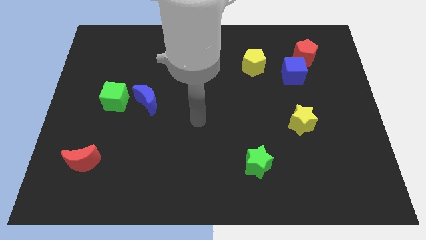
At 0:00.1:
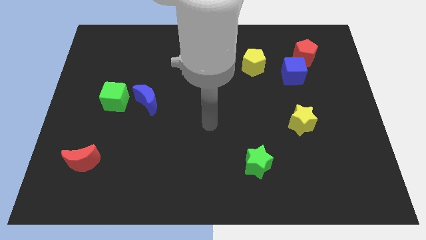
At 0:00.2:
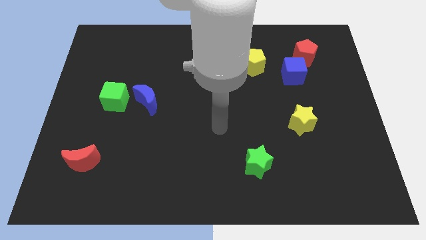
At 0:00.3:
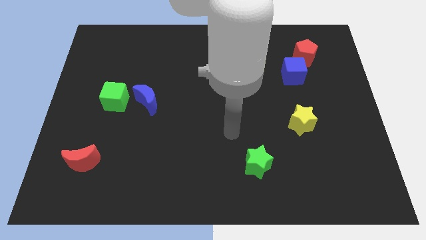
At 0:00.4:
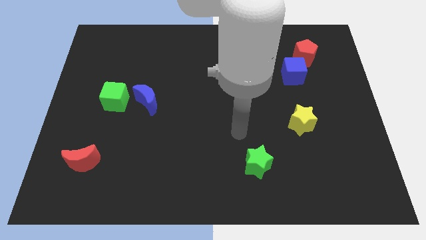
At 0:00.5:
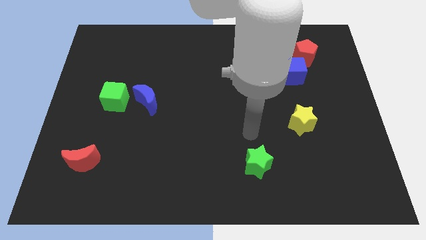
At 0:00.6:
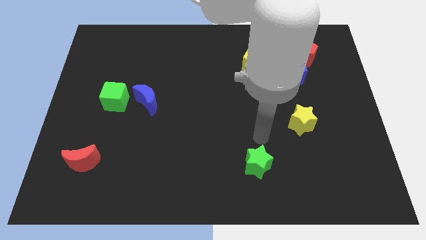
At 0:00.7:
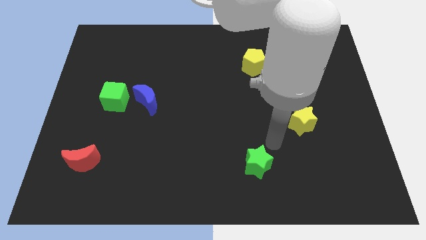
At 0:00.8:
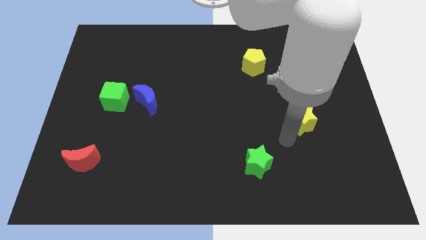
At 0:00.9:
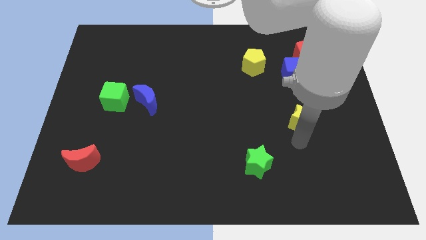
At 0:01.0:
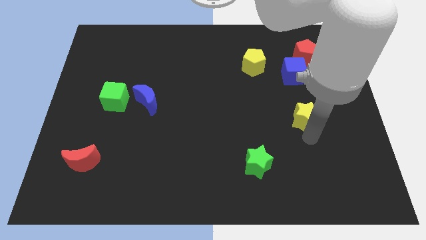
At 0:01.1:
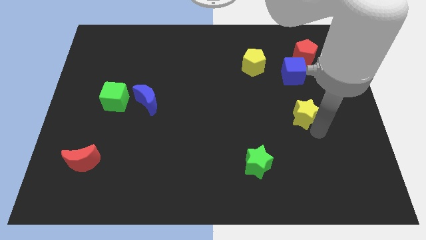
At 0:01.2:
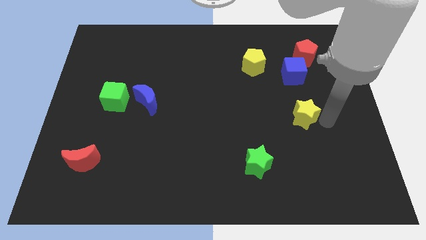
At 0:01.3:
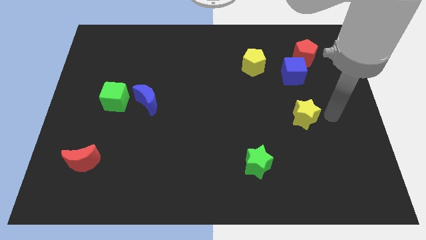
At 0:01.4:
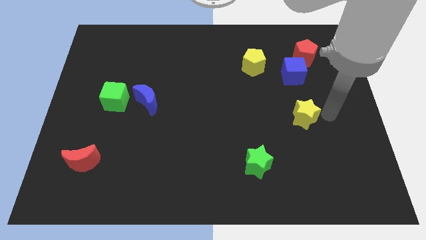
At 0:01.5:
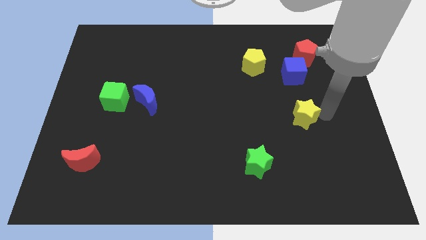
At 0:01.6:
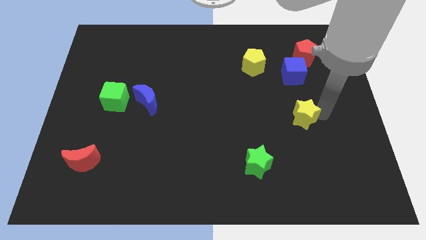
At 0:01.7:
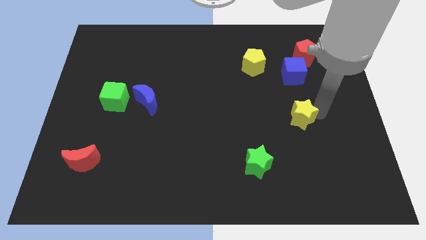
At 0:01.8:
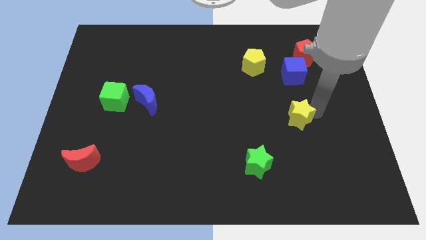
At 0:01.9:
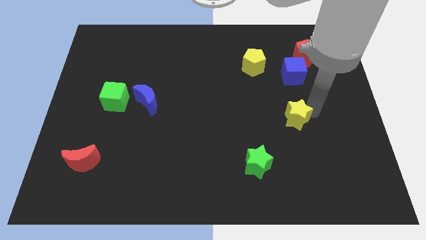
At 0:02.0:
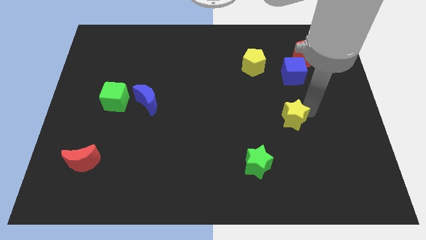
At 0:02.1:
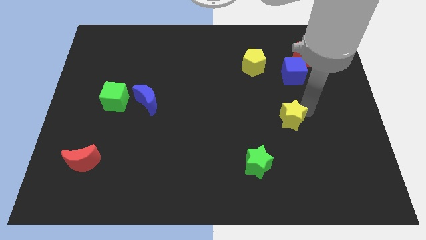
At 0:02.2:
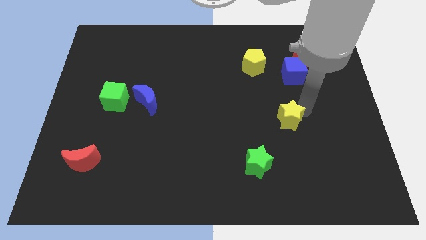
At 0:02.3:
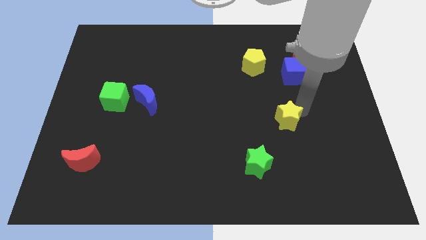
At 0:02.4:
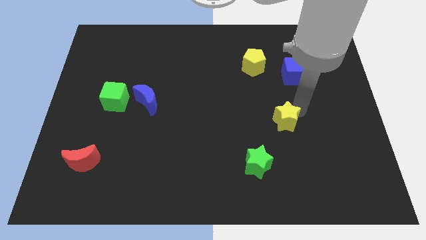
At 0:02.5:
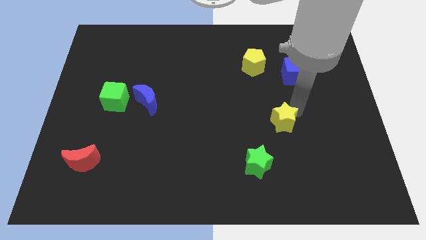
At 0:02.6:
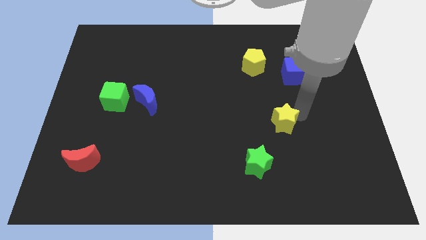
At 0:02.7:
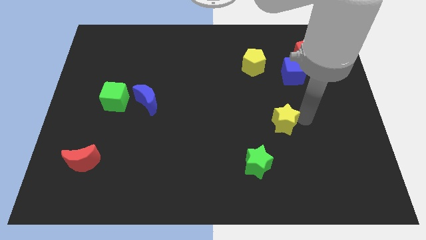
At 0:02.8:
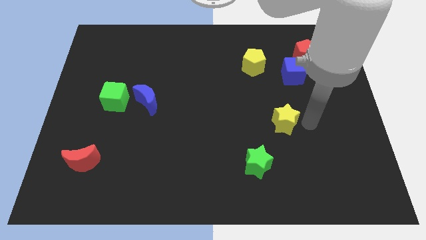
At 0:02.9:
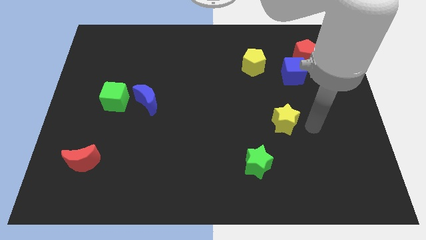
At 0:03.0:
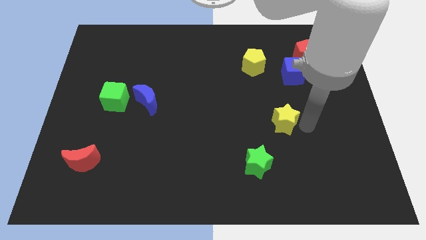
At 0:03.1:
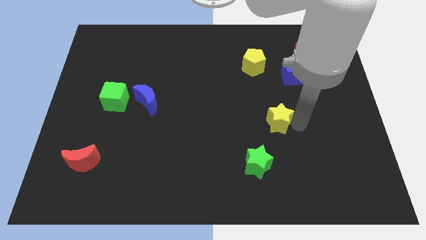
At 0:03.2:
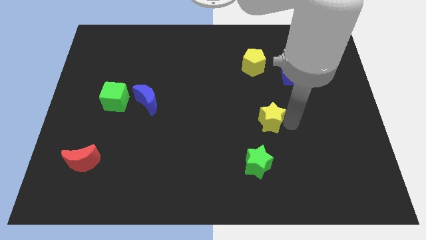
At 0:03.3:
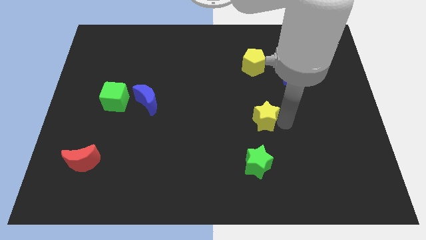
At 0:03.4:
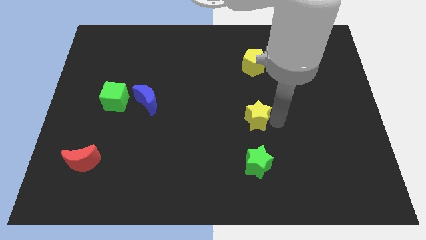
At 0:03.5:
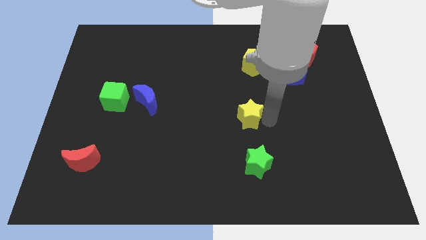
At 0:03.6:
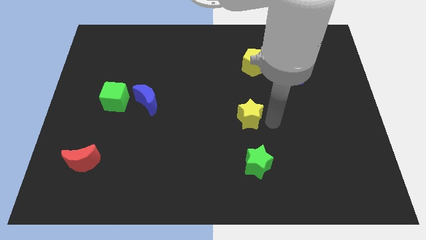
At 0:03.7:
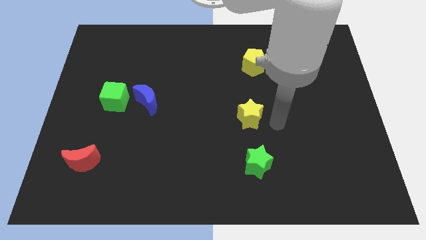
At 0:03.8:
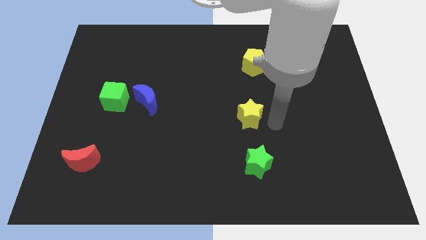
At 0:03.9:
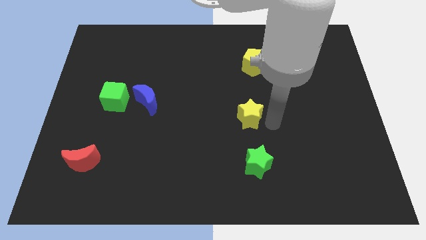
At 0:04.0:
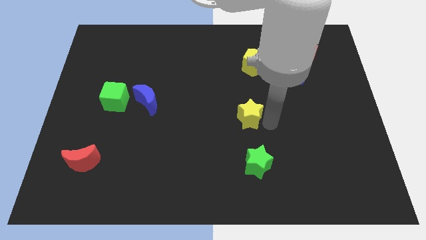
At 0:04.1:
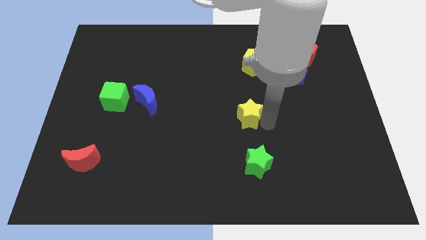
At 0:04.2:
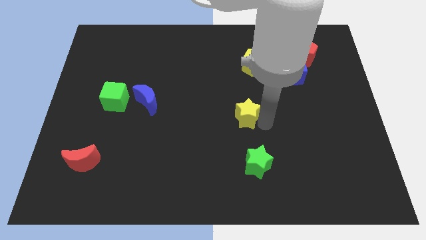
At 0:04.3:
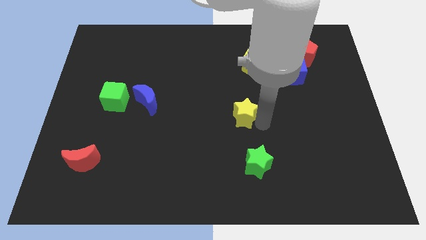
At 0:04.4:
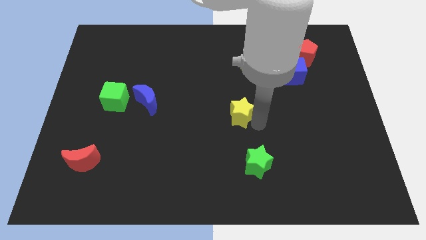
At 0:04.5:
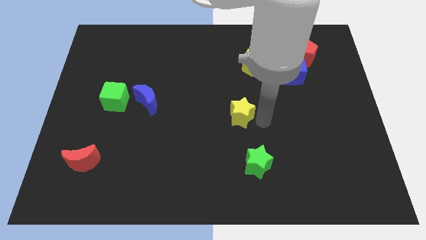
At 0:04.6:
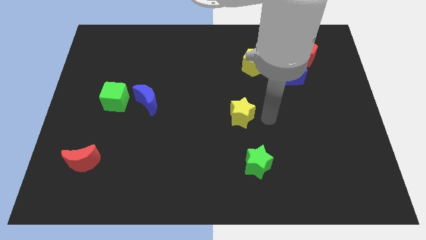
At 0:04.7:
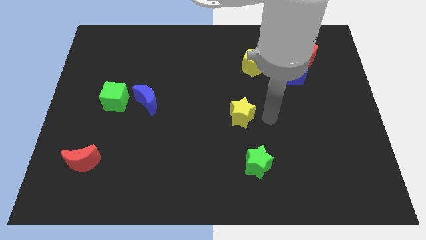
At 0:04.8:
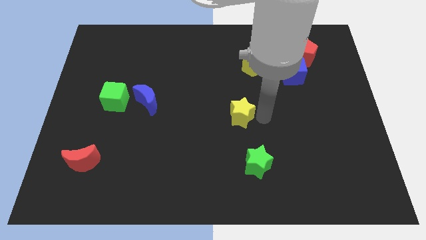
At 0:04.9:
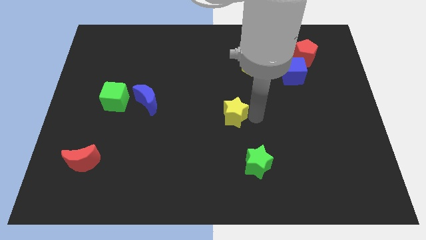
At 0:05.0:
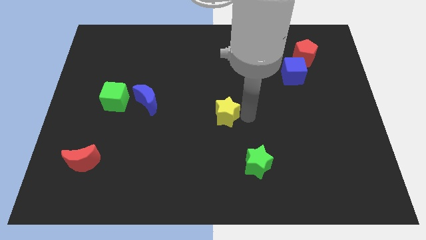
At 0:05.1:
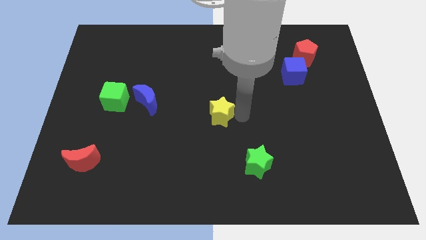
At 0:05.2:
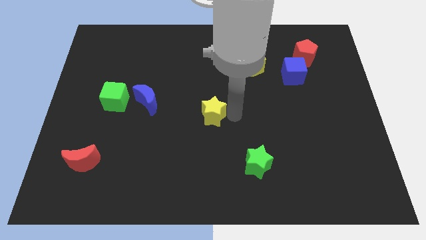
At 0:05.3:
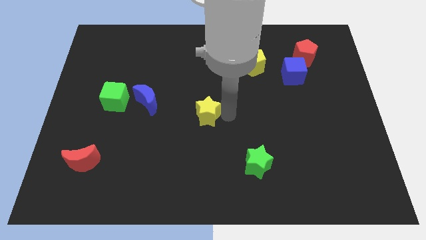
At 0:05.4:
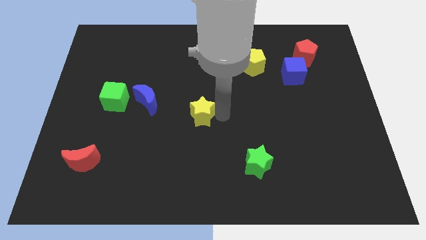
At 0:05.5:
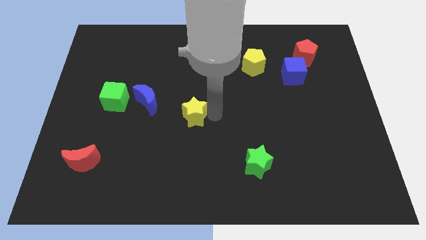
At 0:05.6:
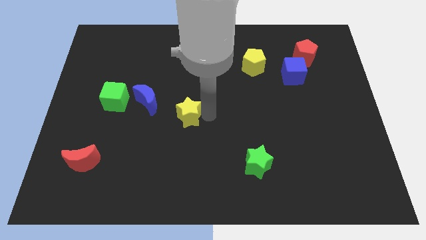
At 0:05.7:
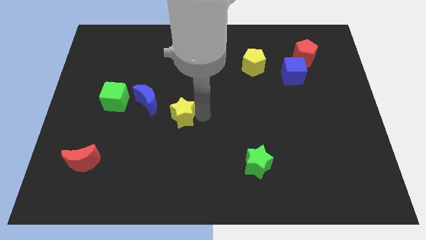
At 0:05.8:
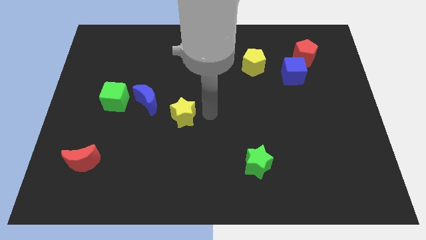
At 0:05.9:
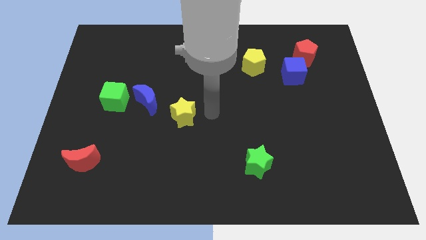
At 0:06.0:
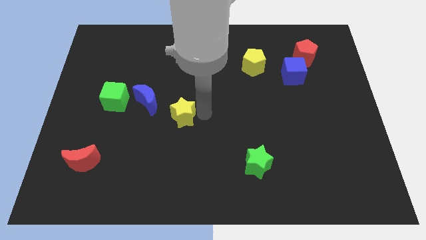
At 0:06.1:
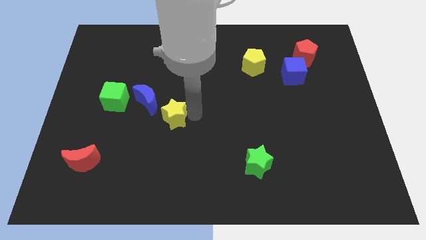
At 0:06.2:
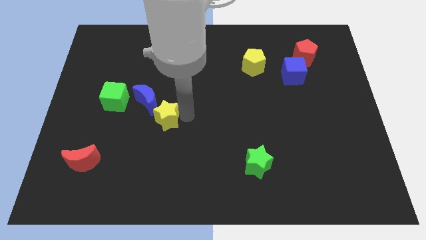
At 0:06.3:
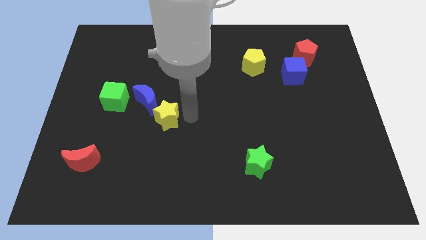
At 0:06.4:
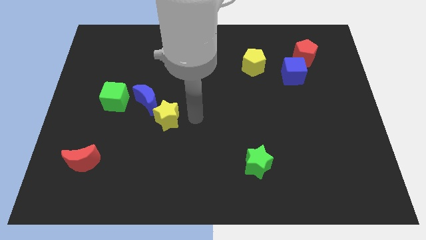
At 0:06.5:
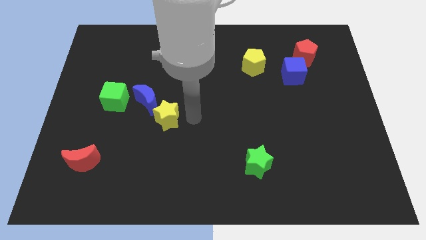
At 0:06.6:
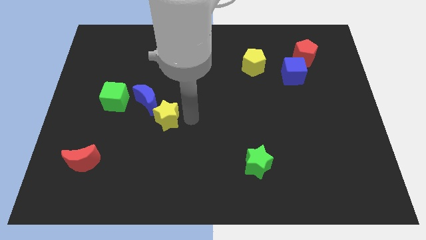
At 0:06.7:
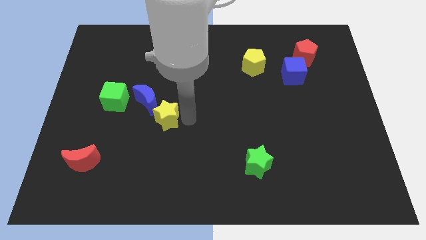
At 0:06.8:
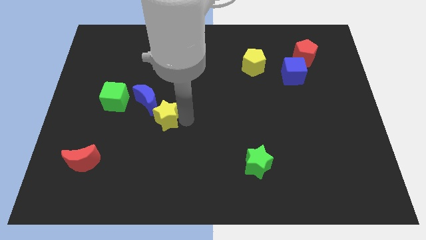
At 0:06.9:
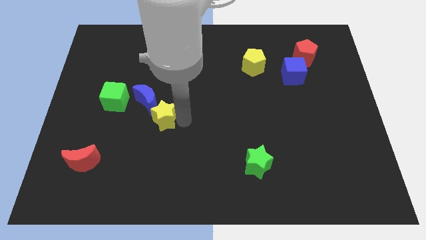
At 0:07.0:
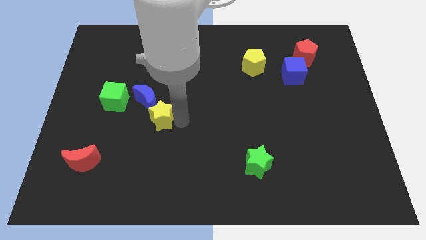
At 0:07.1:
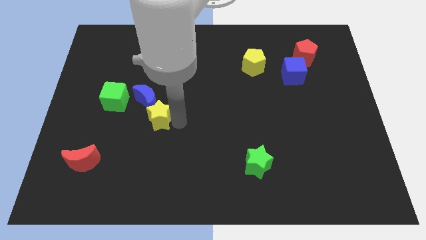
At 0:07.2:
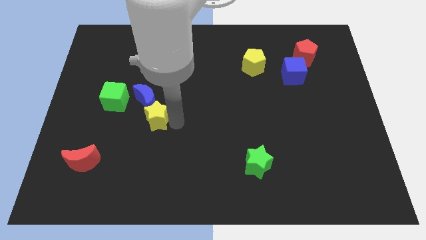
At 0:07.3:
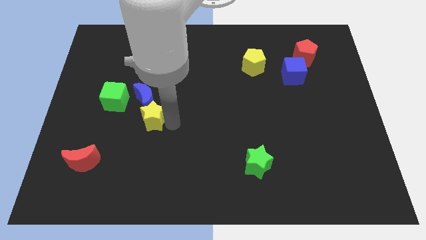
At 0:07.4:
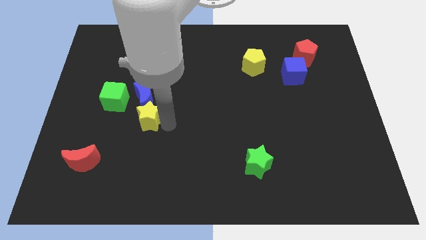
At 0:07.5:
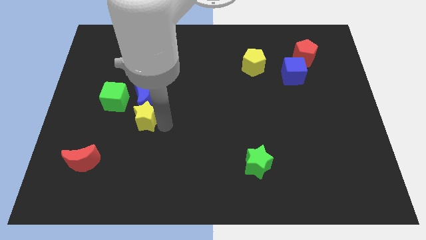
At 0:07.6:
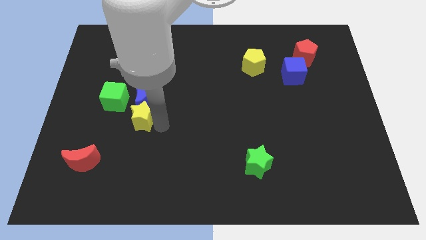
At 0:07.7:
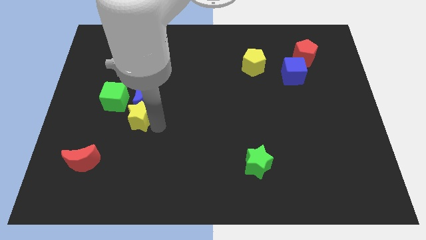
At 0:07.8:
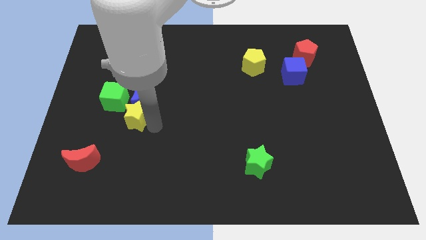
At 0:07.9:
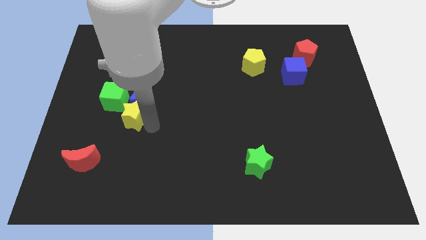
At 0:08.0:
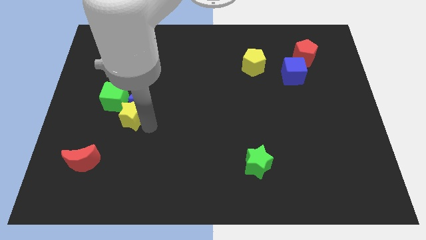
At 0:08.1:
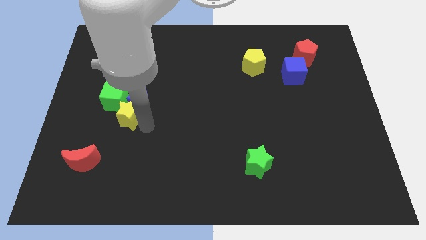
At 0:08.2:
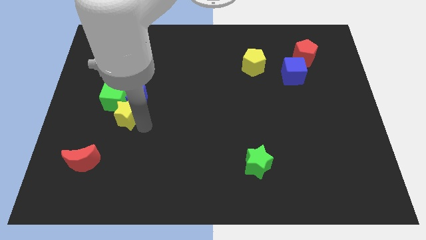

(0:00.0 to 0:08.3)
put the yellow star next to the green cube
